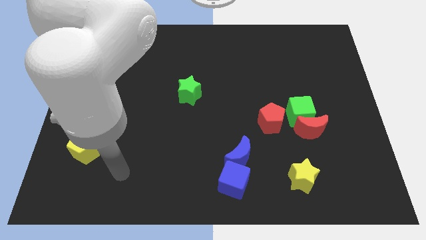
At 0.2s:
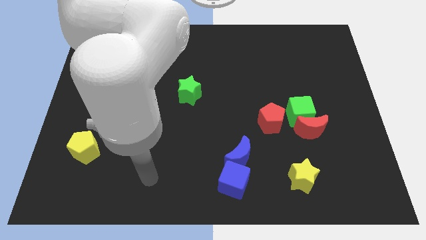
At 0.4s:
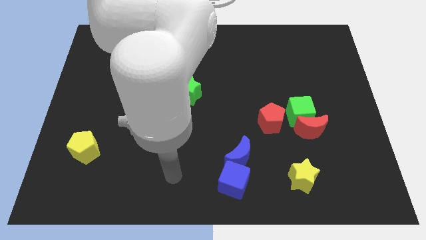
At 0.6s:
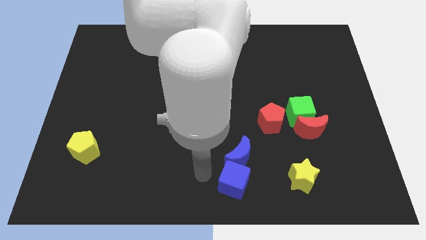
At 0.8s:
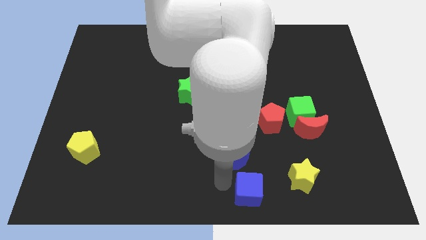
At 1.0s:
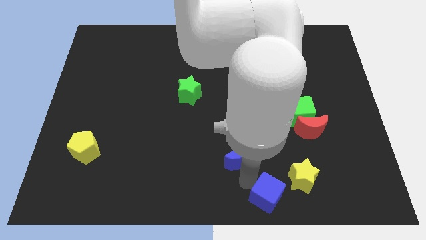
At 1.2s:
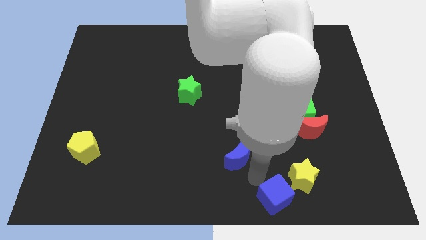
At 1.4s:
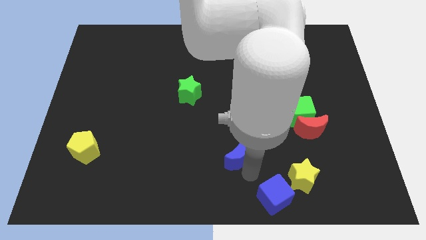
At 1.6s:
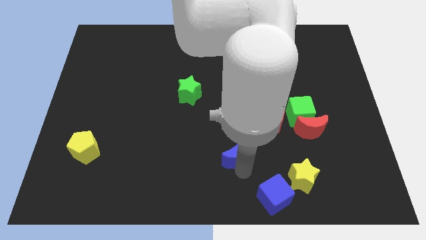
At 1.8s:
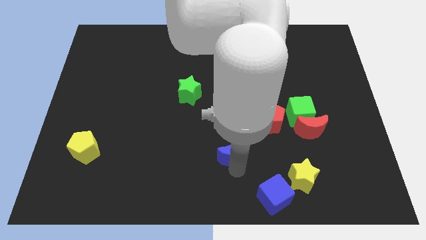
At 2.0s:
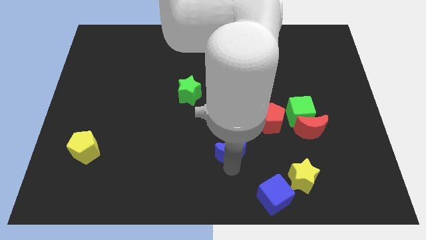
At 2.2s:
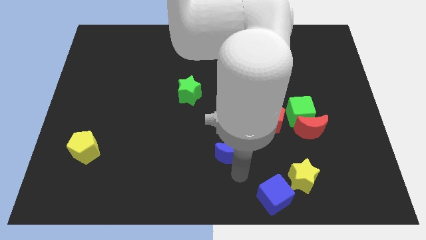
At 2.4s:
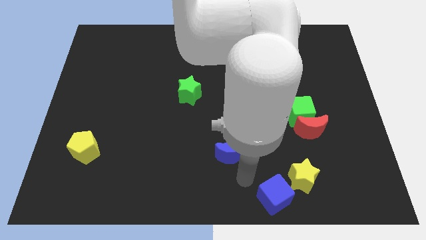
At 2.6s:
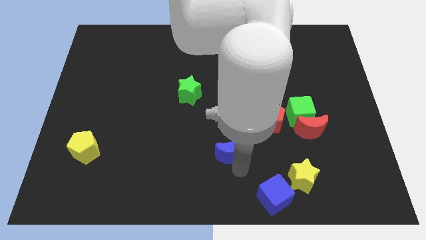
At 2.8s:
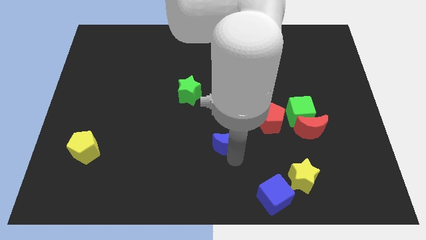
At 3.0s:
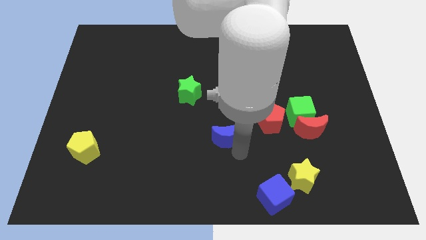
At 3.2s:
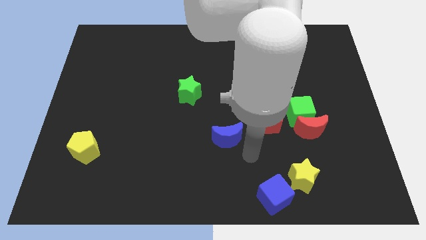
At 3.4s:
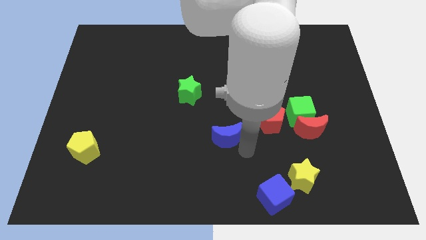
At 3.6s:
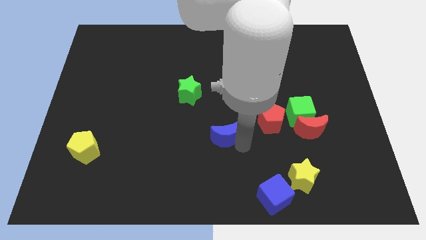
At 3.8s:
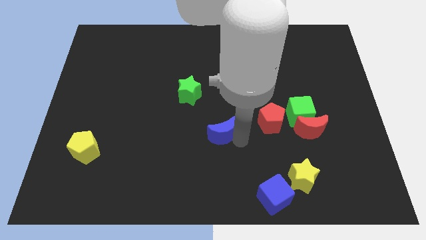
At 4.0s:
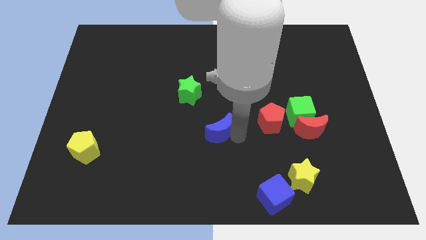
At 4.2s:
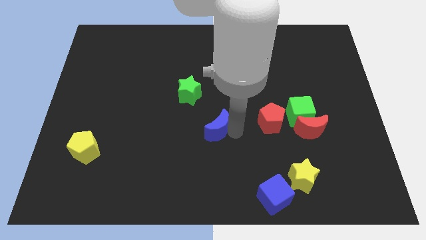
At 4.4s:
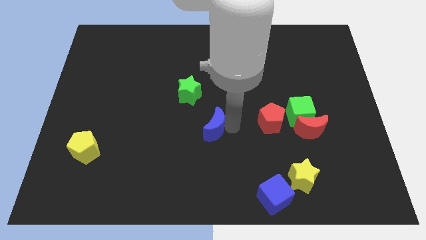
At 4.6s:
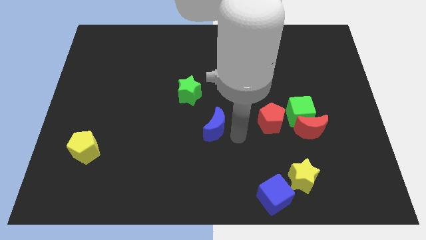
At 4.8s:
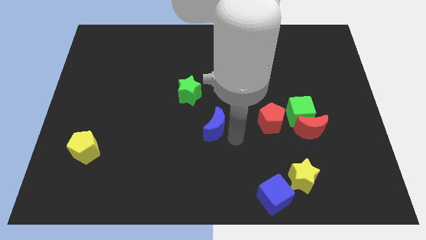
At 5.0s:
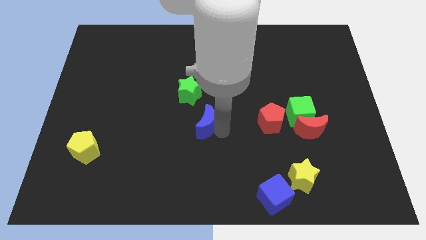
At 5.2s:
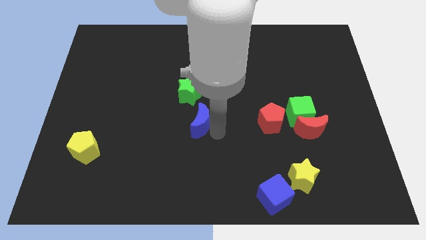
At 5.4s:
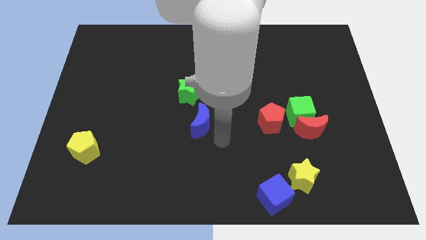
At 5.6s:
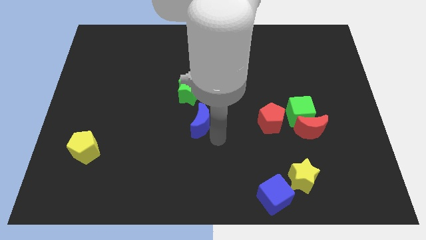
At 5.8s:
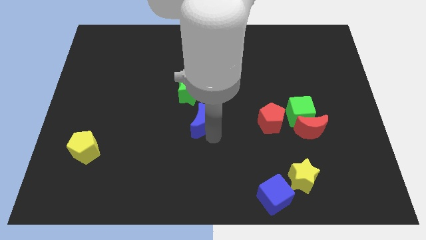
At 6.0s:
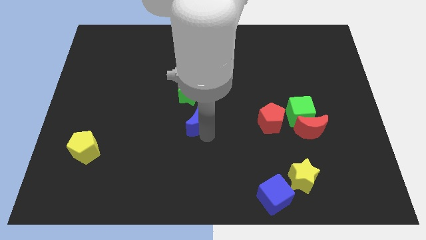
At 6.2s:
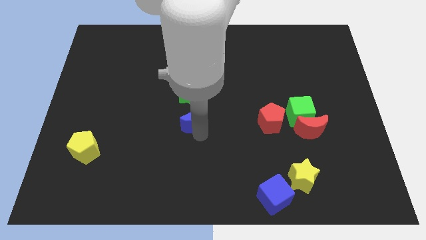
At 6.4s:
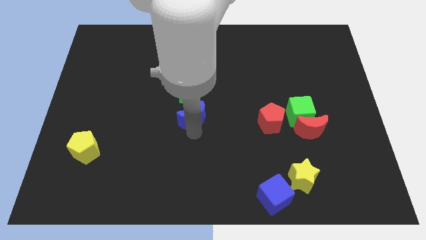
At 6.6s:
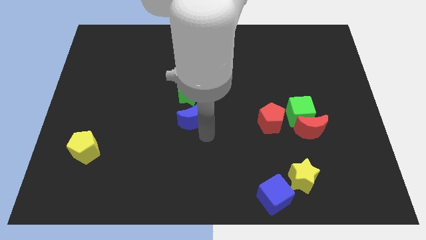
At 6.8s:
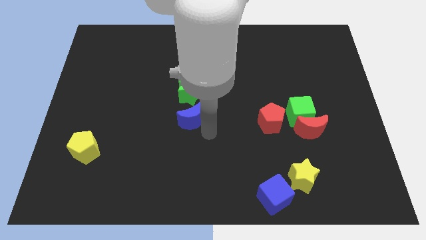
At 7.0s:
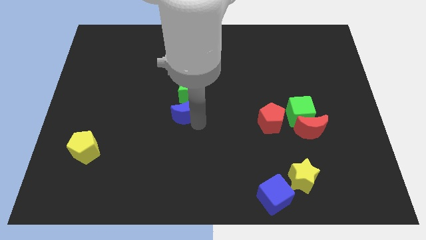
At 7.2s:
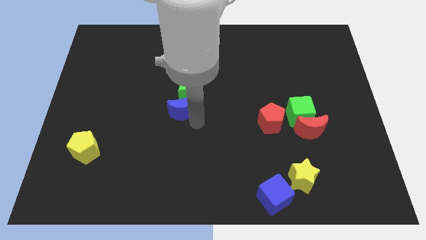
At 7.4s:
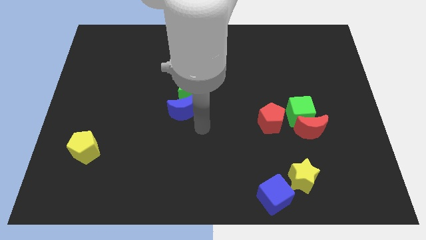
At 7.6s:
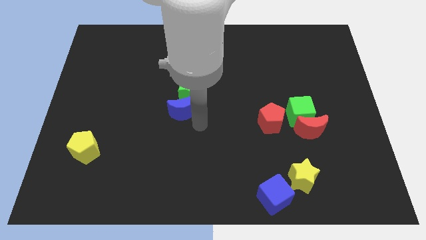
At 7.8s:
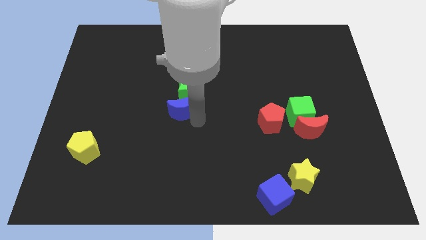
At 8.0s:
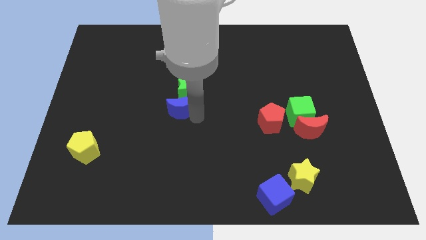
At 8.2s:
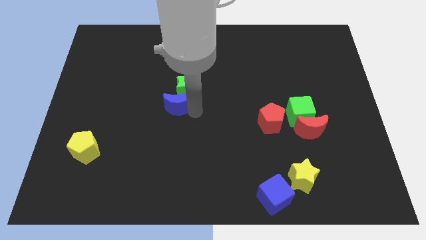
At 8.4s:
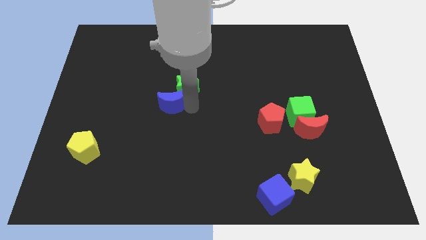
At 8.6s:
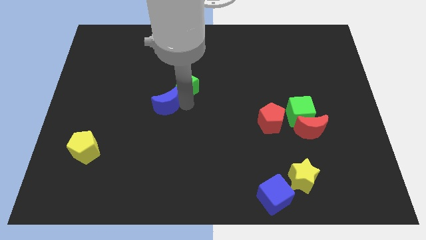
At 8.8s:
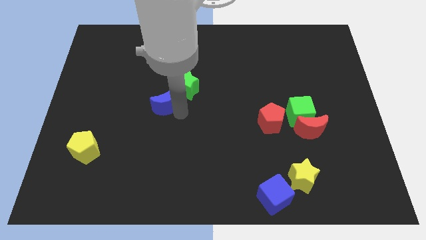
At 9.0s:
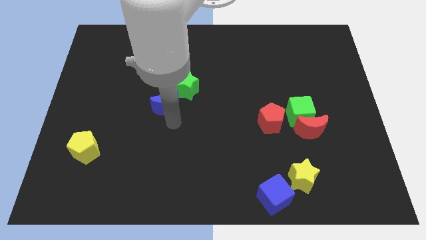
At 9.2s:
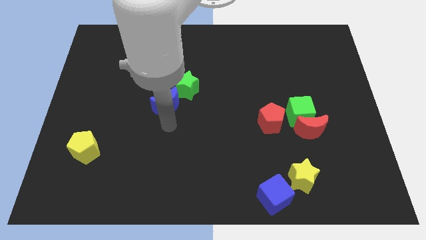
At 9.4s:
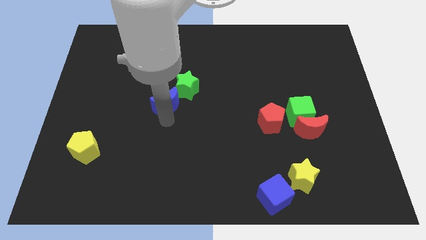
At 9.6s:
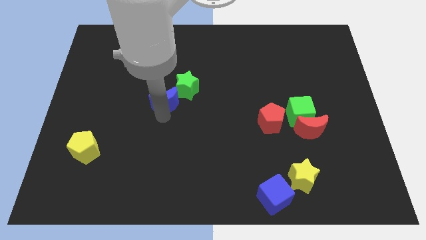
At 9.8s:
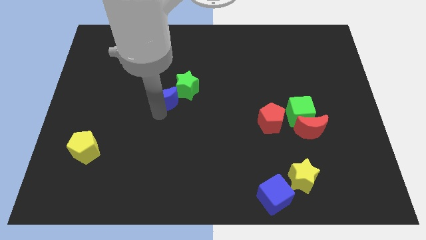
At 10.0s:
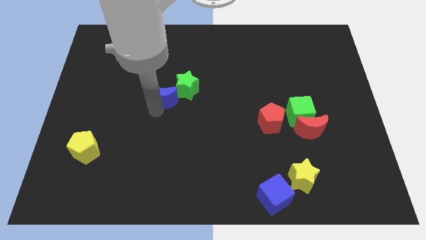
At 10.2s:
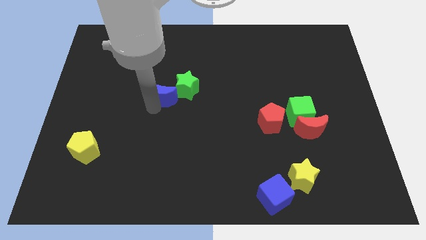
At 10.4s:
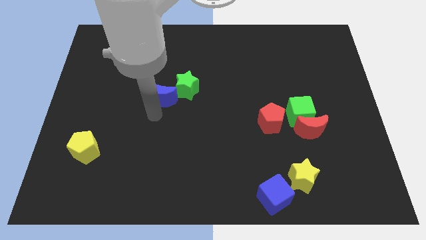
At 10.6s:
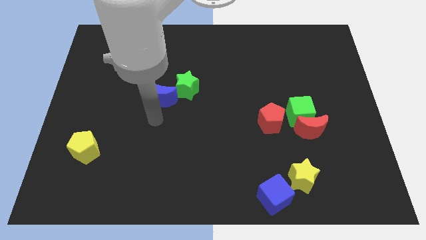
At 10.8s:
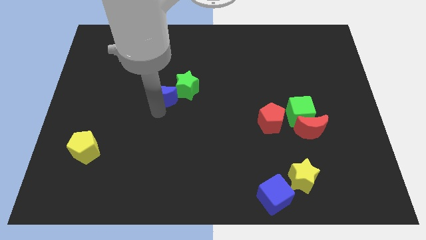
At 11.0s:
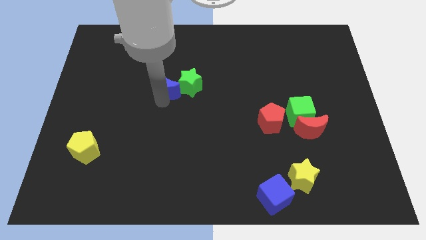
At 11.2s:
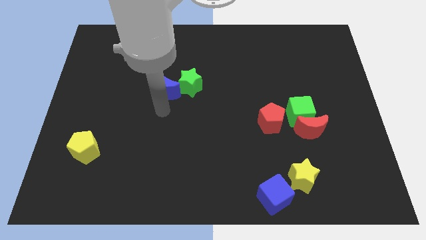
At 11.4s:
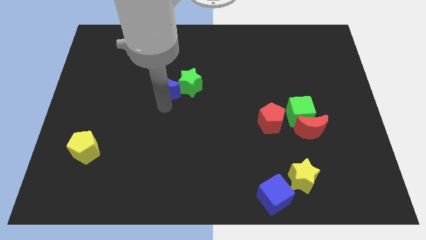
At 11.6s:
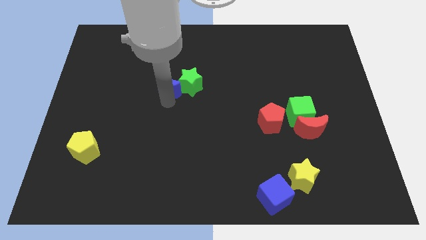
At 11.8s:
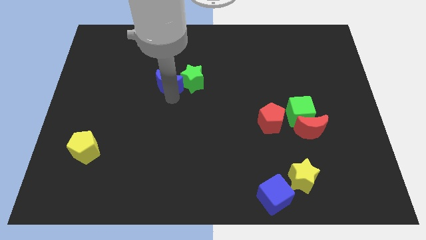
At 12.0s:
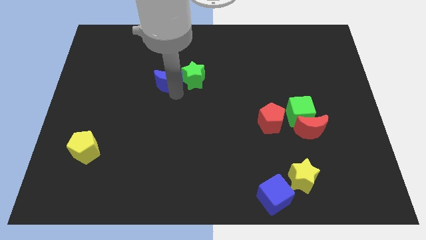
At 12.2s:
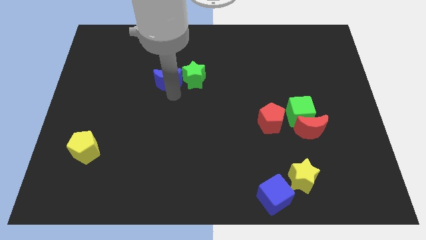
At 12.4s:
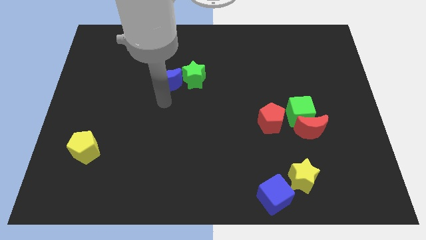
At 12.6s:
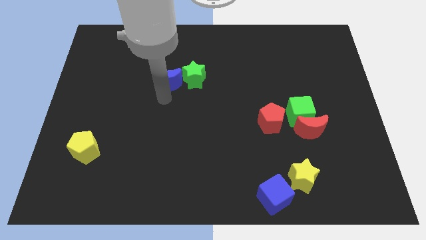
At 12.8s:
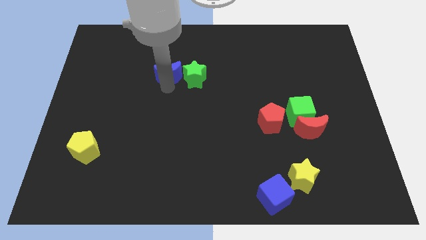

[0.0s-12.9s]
put the blue moon to the top left side of the green star

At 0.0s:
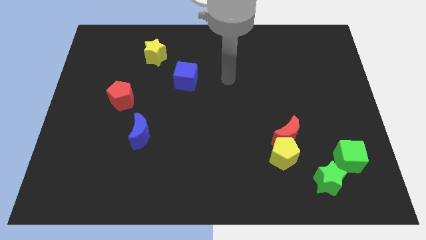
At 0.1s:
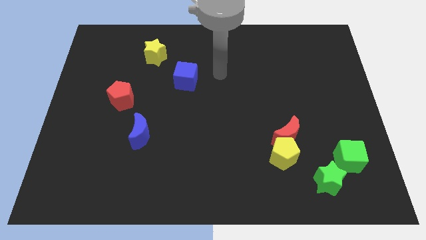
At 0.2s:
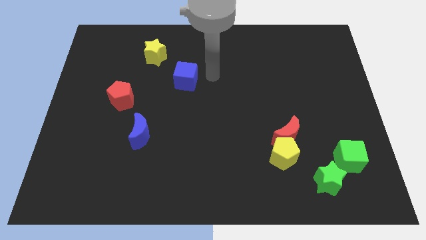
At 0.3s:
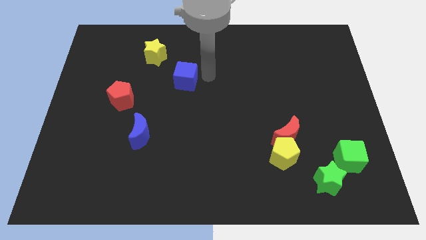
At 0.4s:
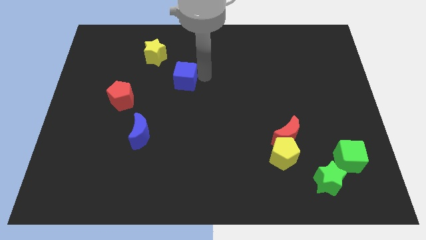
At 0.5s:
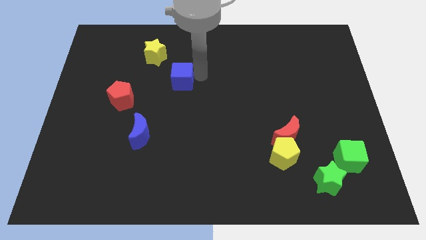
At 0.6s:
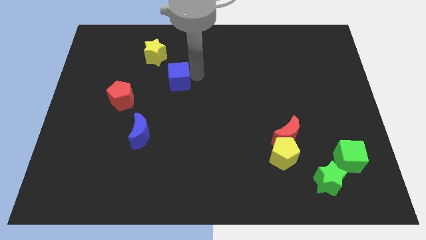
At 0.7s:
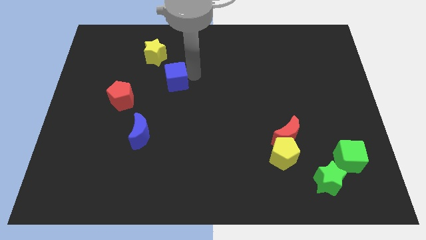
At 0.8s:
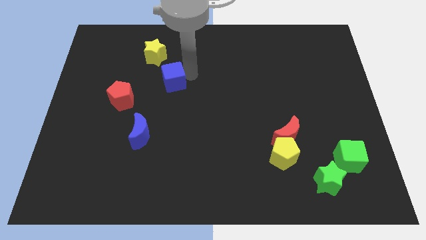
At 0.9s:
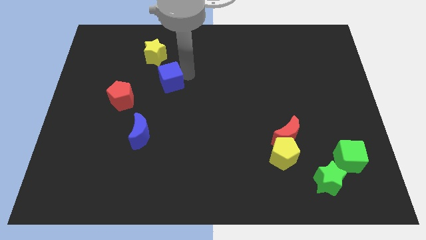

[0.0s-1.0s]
push the blue cube below the yellow star

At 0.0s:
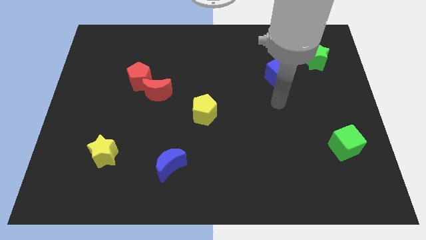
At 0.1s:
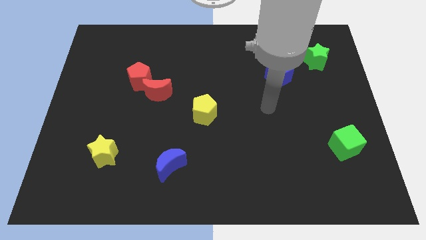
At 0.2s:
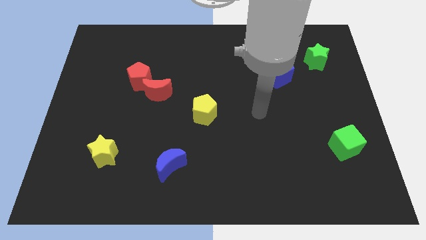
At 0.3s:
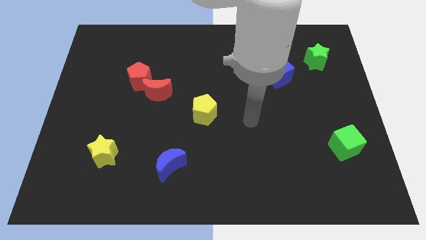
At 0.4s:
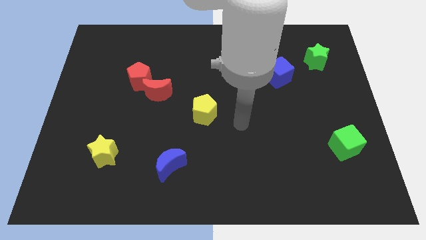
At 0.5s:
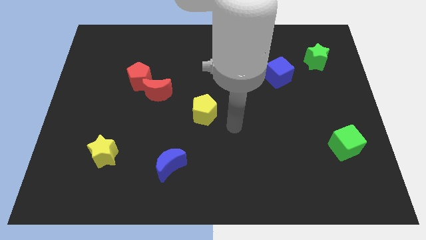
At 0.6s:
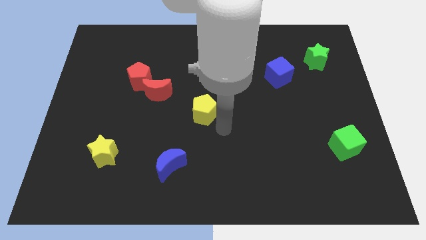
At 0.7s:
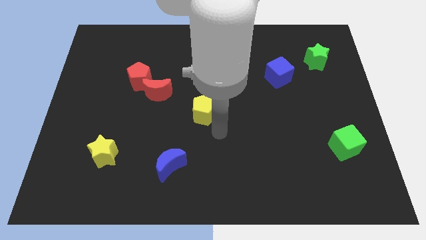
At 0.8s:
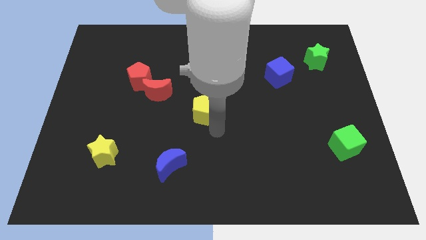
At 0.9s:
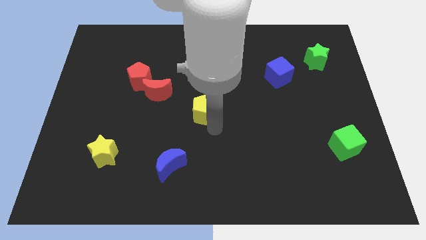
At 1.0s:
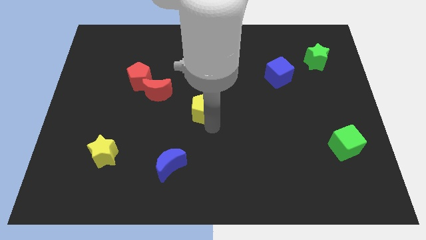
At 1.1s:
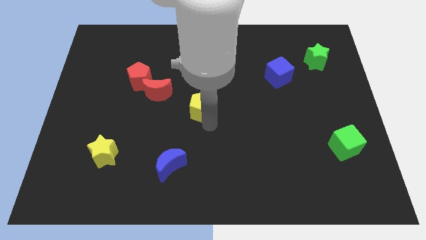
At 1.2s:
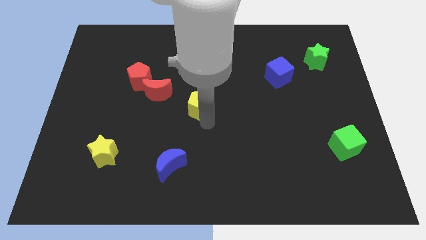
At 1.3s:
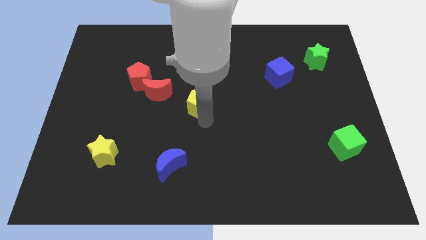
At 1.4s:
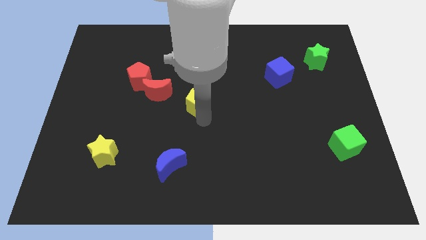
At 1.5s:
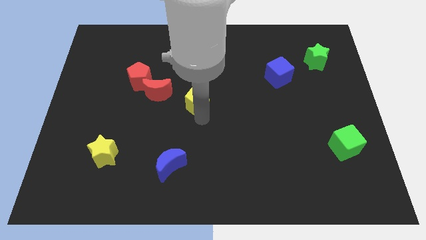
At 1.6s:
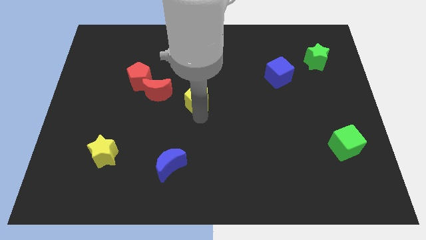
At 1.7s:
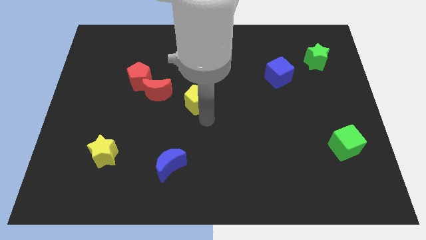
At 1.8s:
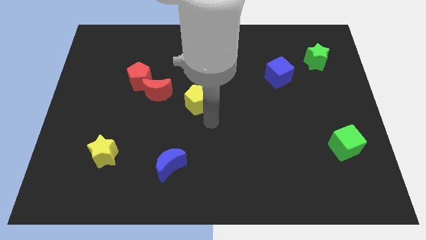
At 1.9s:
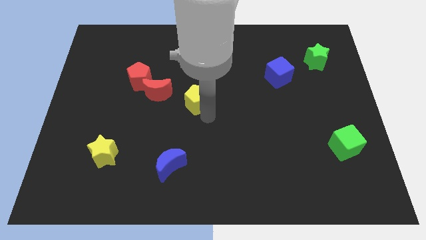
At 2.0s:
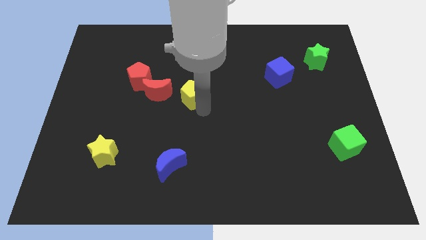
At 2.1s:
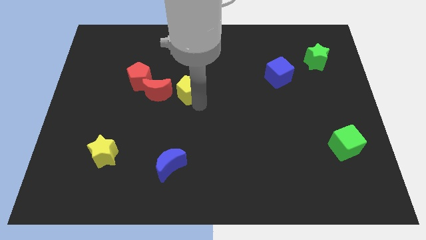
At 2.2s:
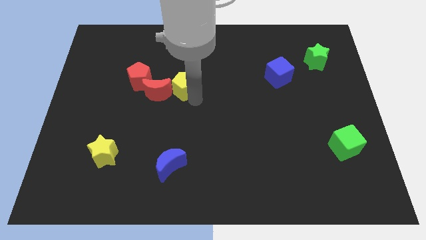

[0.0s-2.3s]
move the yellow pentagon to the top right side of the red moon
